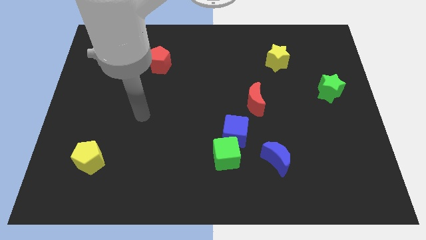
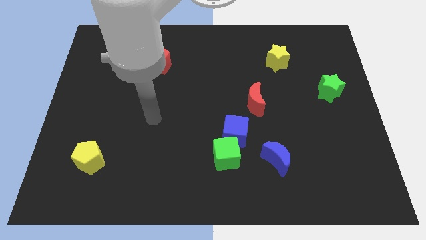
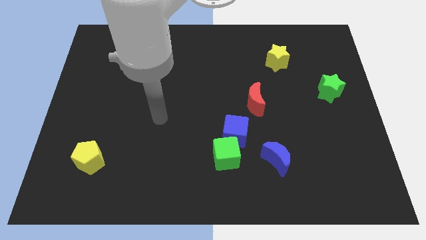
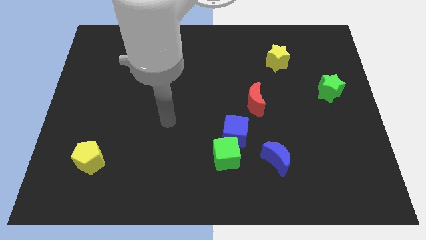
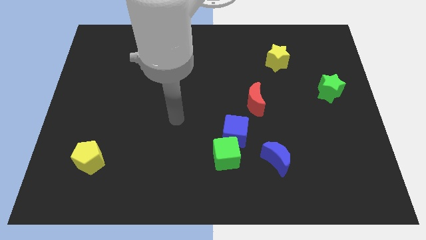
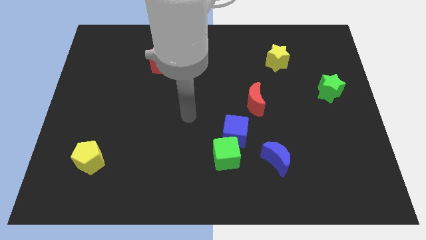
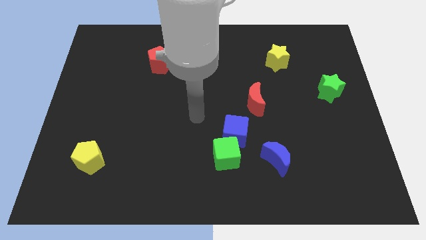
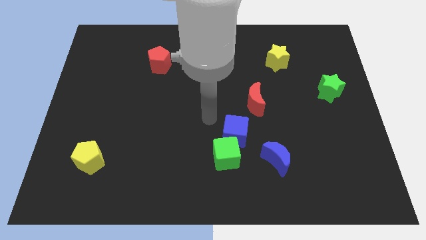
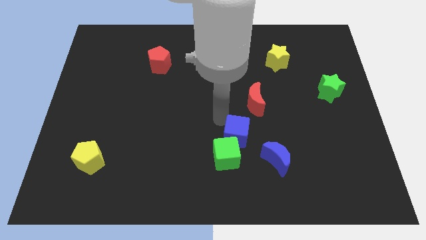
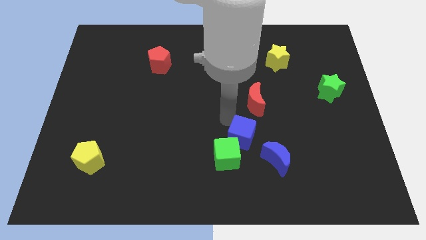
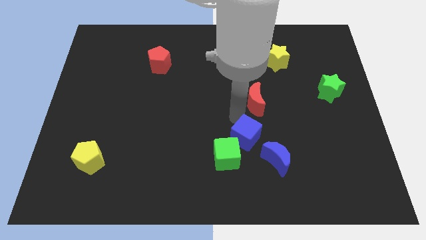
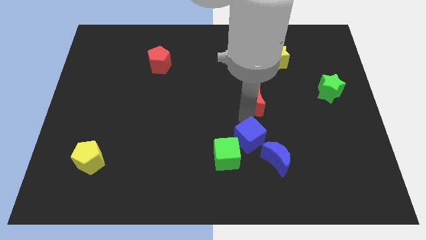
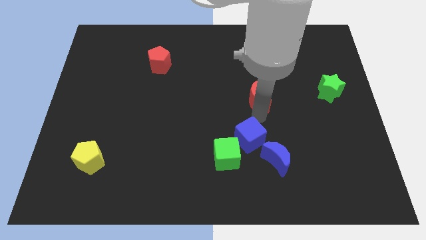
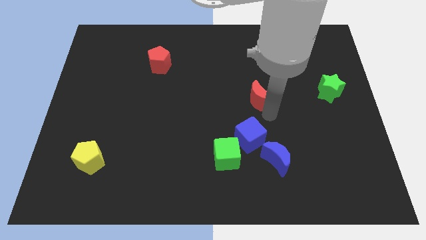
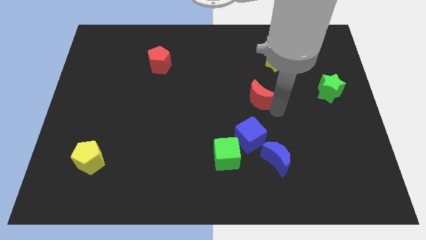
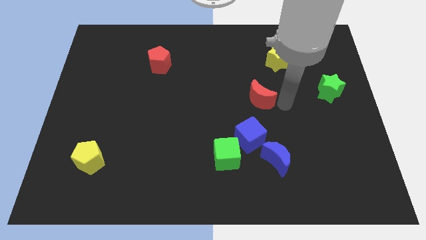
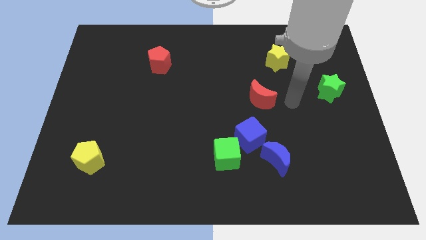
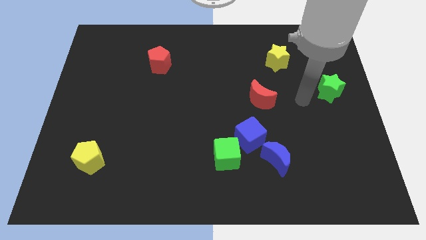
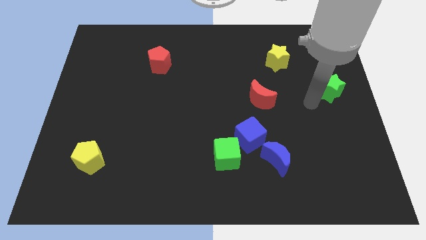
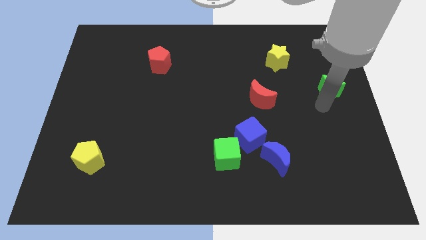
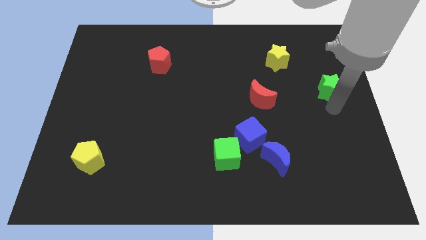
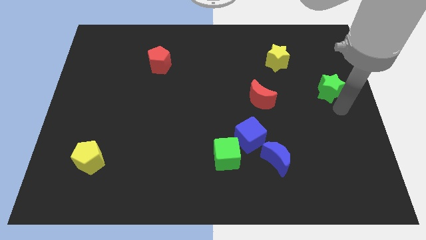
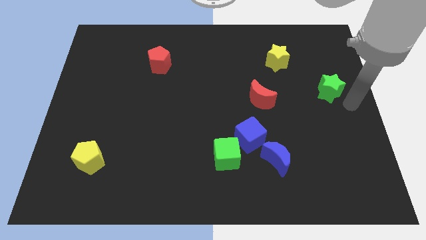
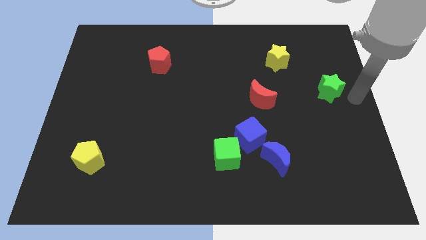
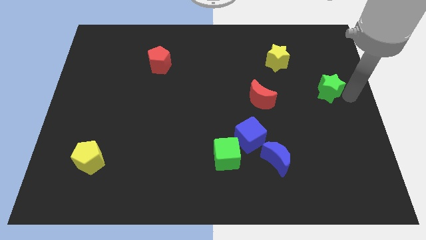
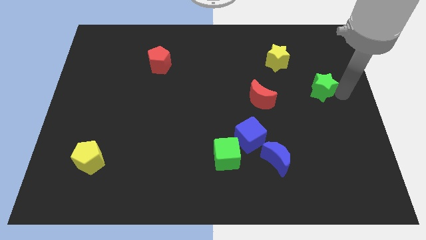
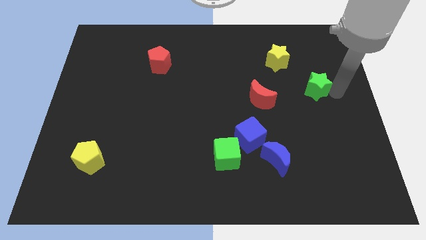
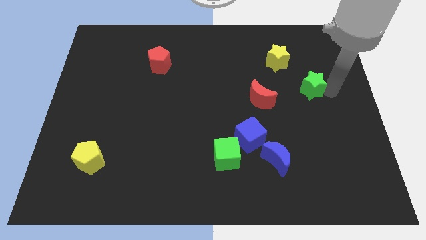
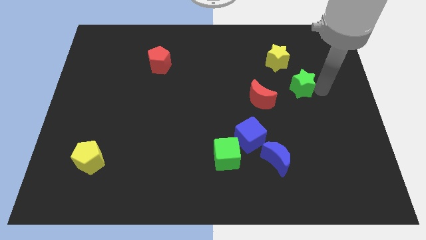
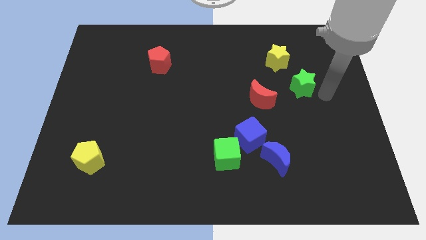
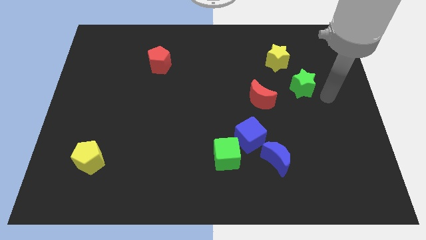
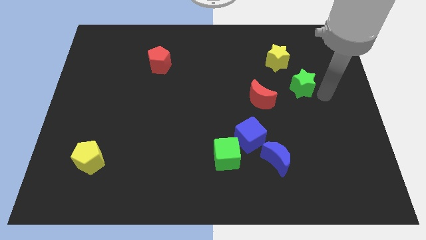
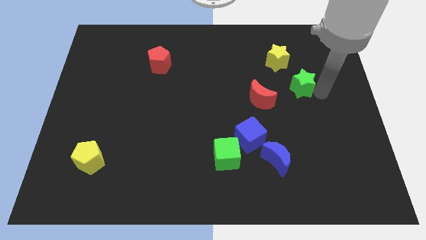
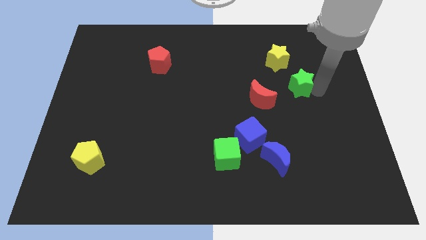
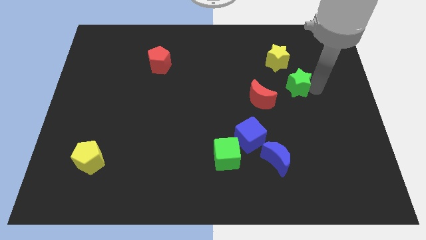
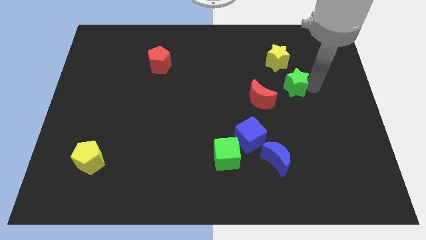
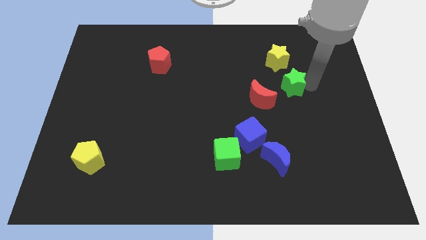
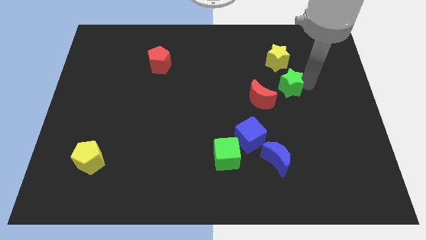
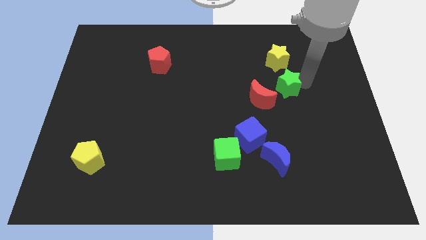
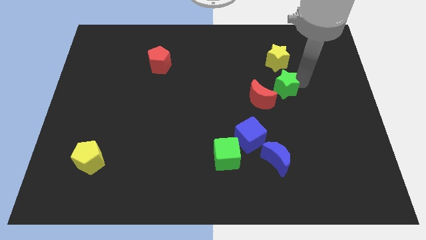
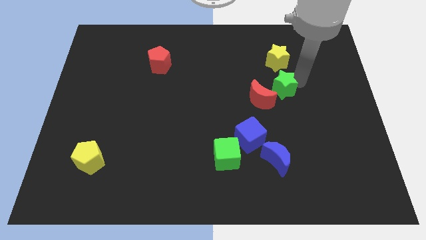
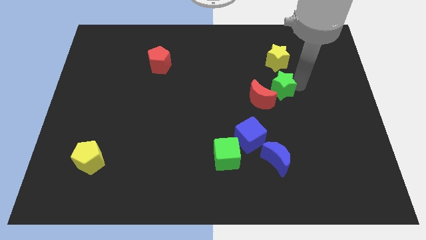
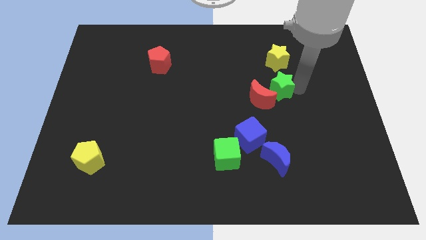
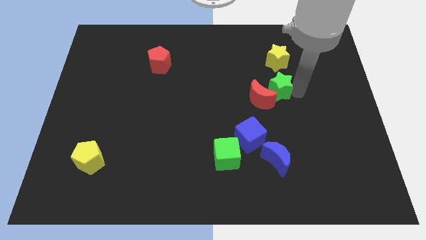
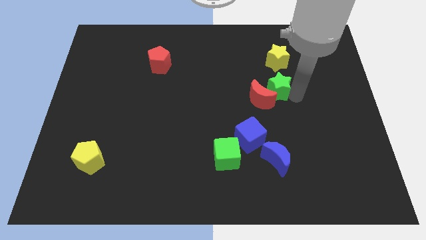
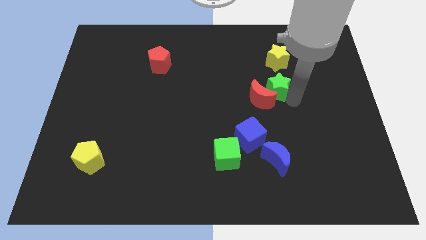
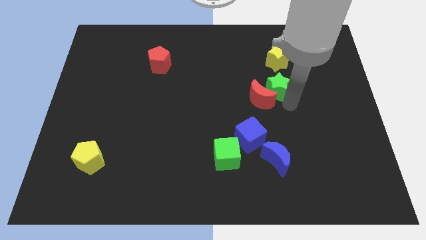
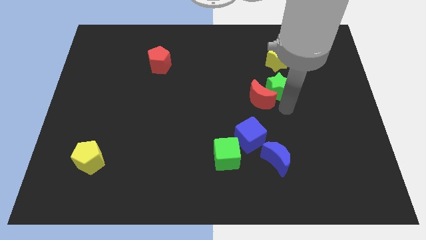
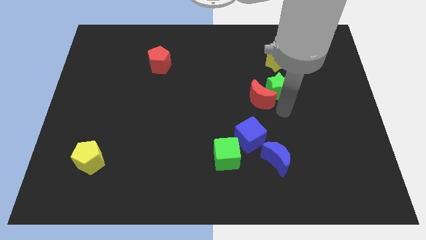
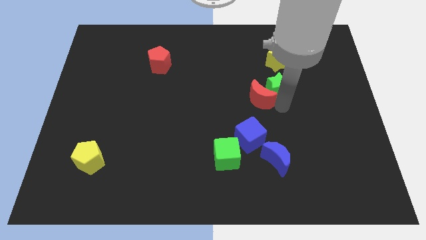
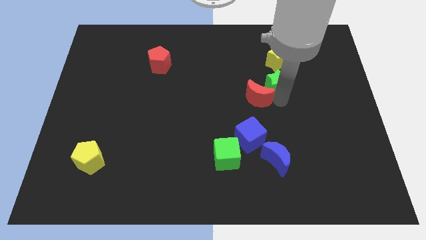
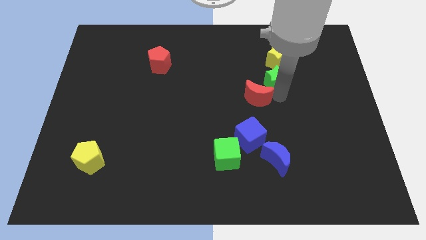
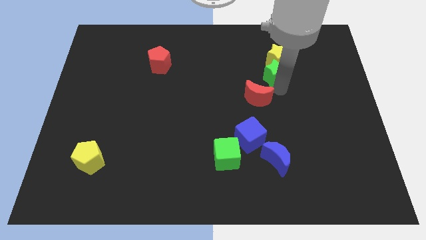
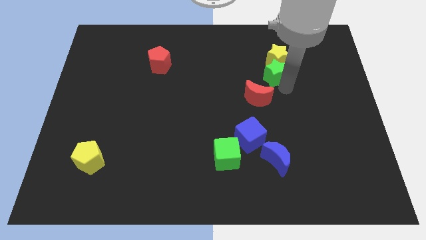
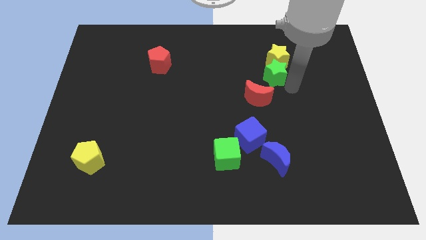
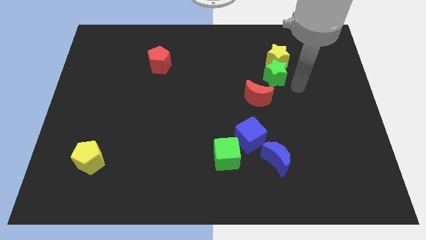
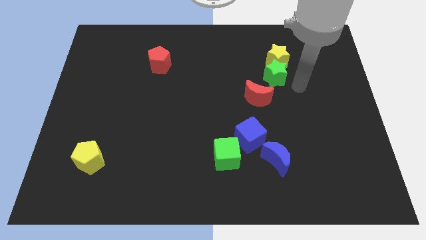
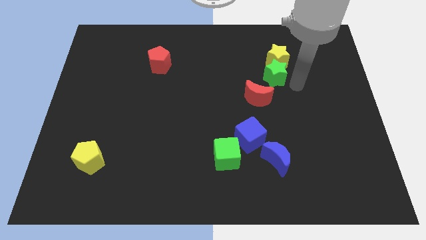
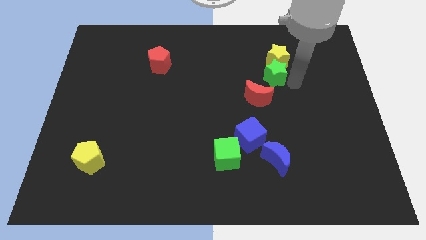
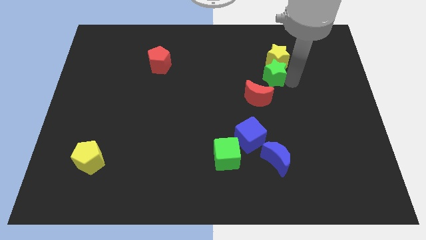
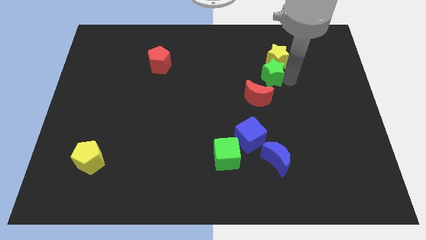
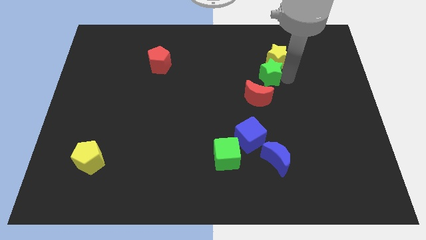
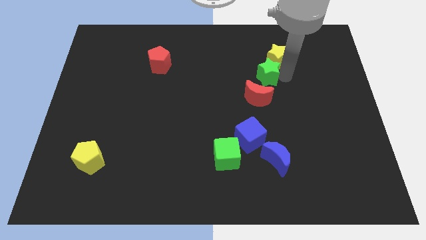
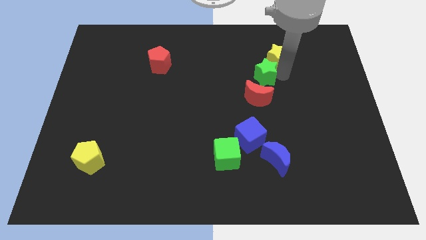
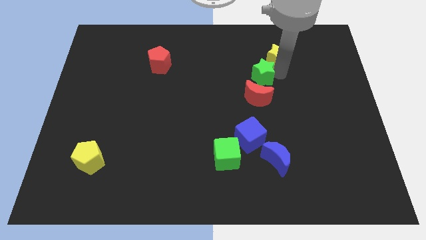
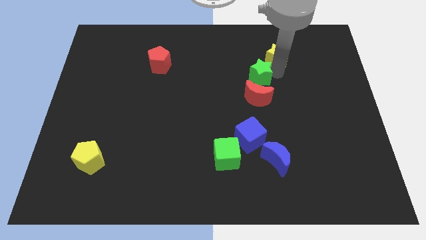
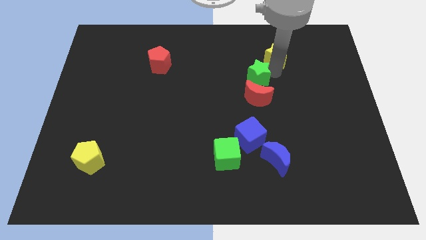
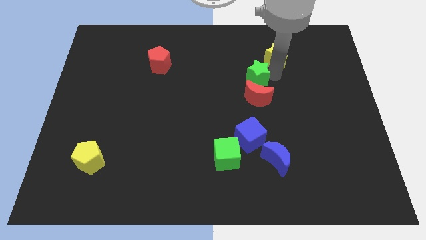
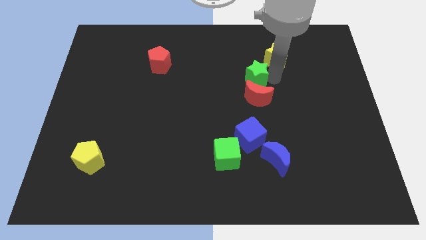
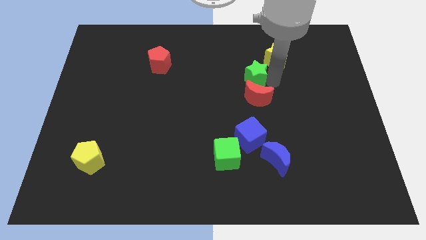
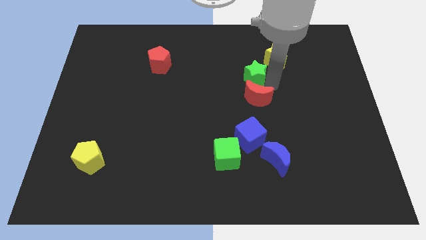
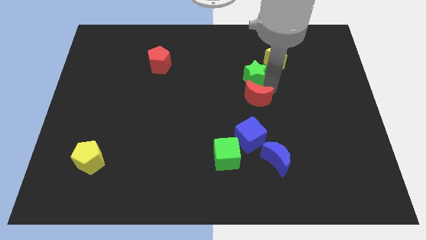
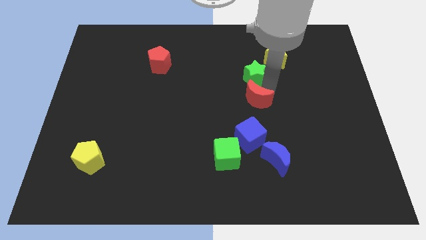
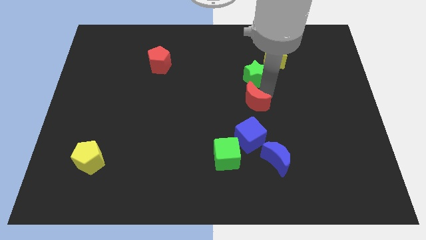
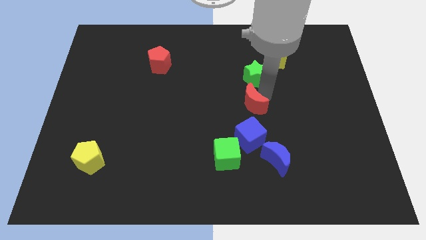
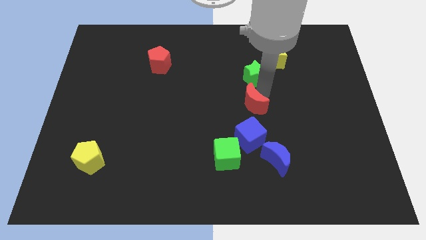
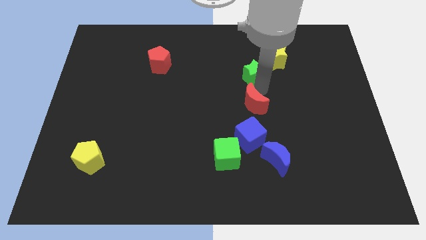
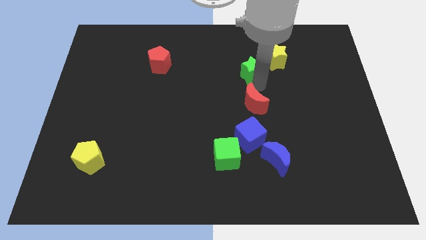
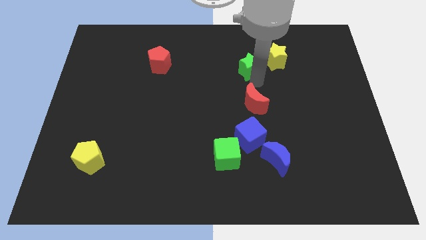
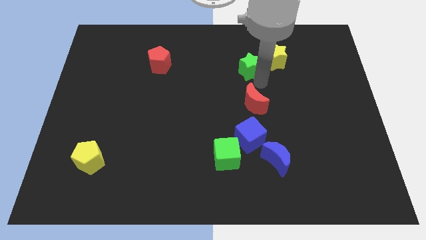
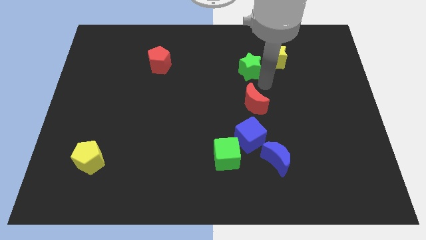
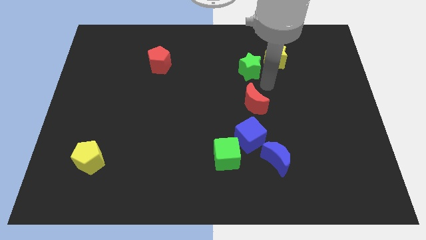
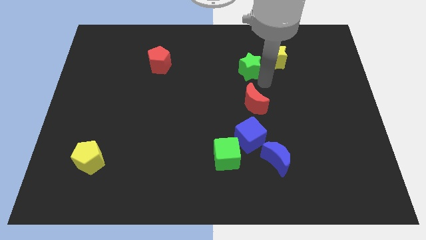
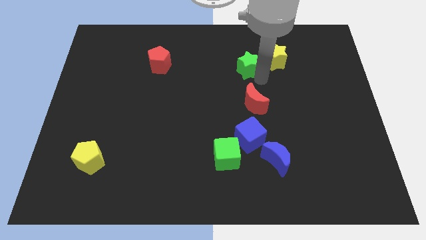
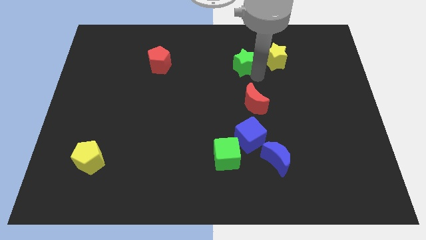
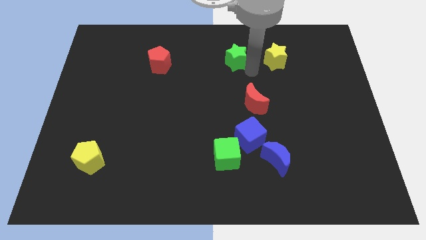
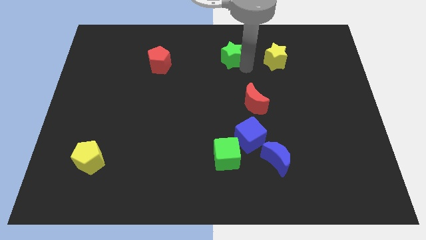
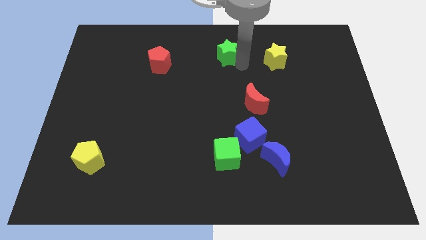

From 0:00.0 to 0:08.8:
slide the green star to the top
